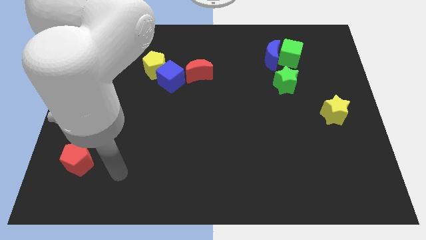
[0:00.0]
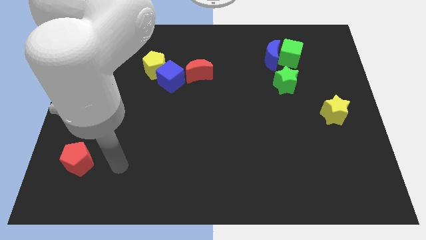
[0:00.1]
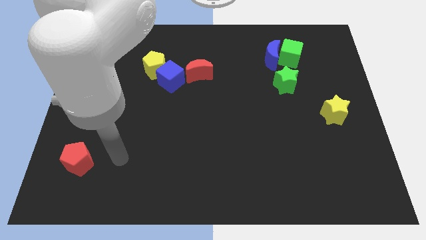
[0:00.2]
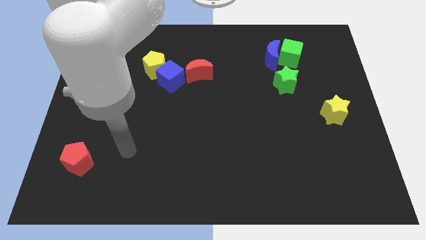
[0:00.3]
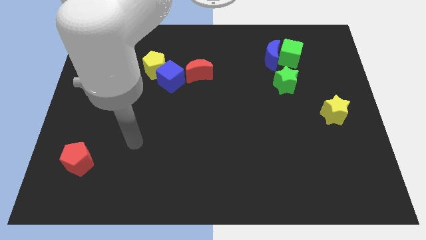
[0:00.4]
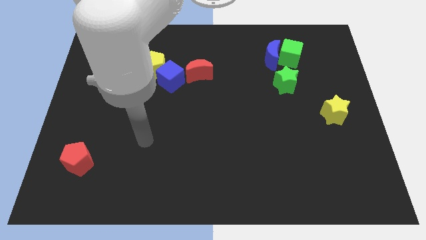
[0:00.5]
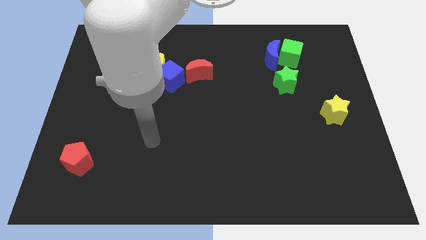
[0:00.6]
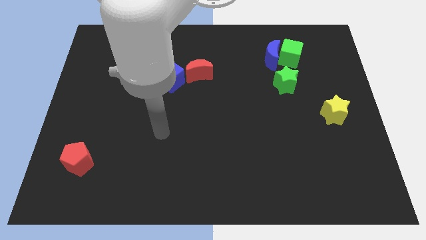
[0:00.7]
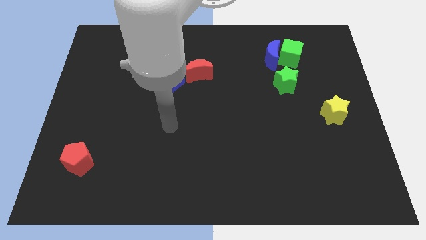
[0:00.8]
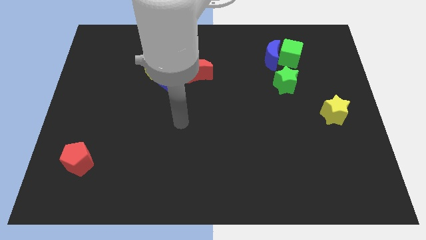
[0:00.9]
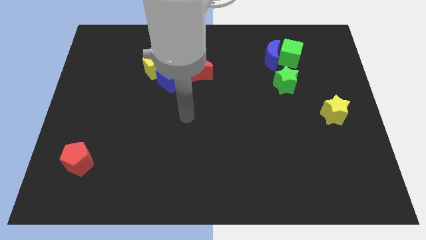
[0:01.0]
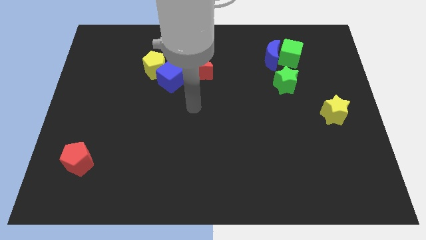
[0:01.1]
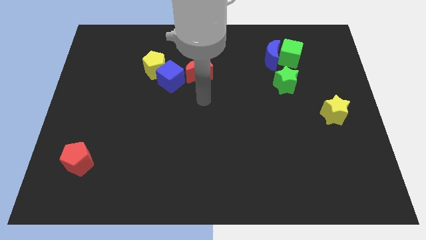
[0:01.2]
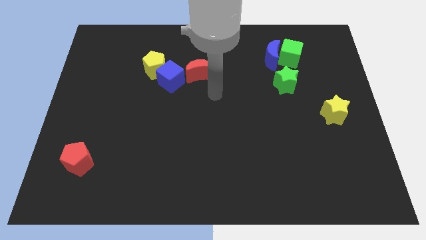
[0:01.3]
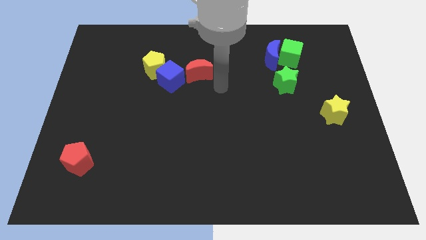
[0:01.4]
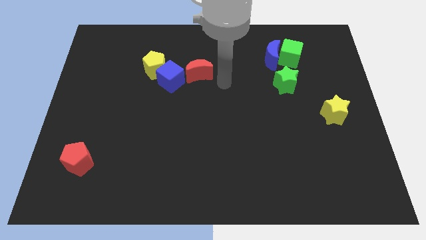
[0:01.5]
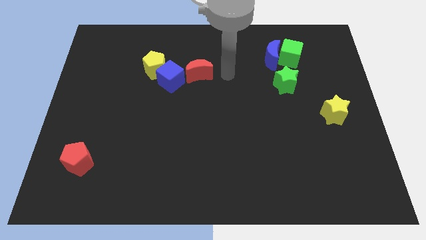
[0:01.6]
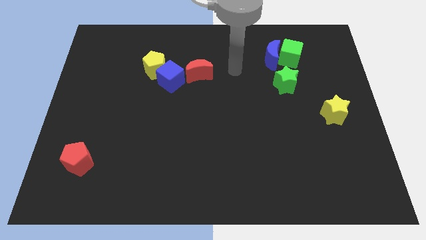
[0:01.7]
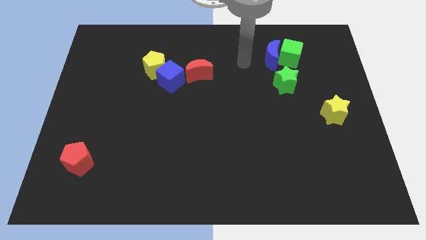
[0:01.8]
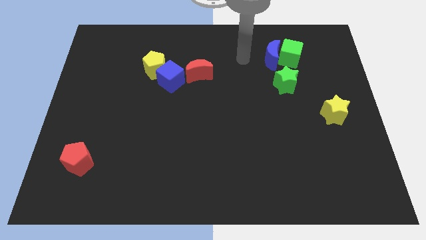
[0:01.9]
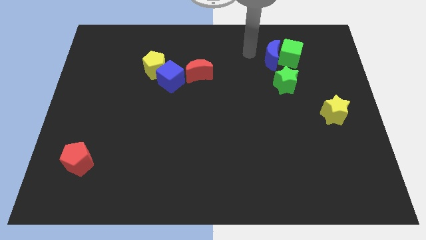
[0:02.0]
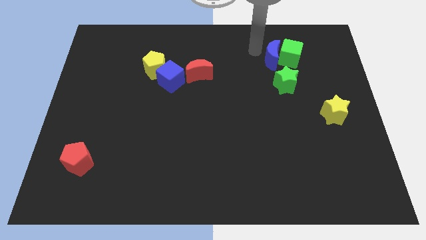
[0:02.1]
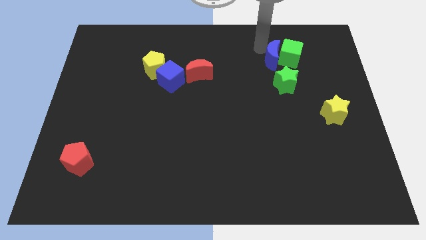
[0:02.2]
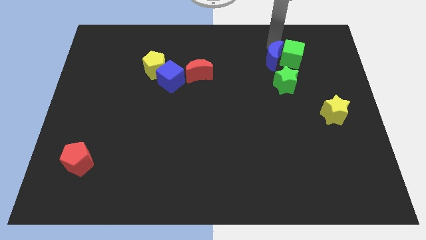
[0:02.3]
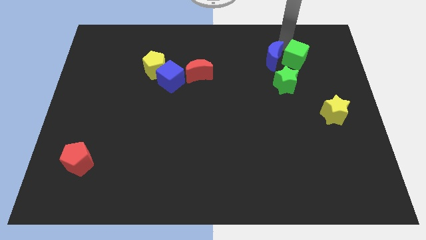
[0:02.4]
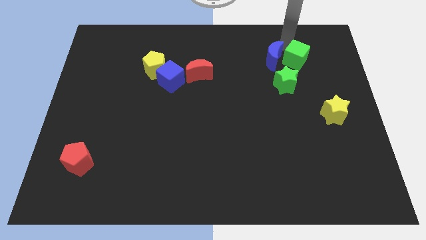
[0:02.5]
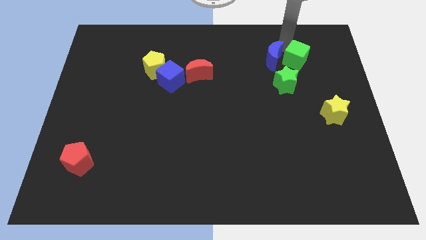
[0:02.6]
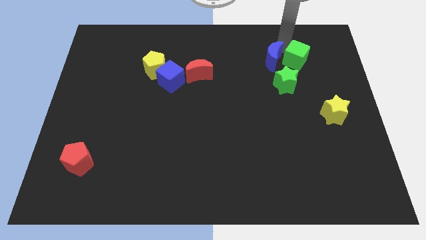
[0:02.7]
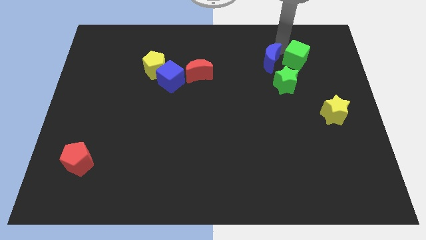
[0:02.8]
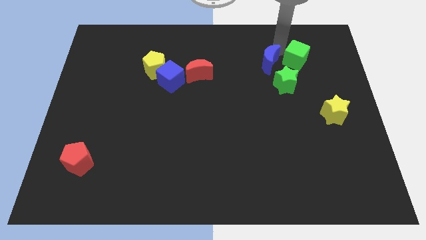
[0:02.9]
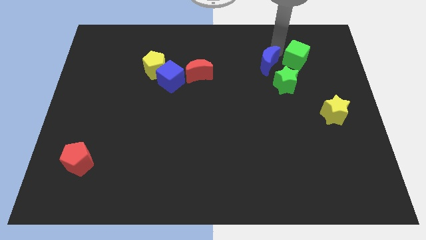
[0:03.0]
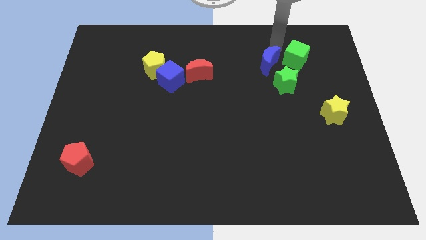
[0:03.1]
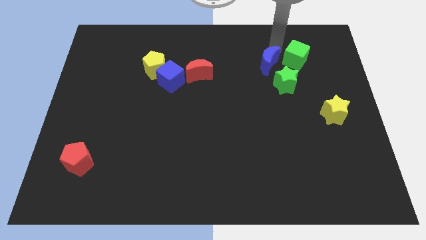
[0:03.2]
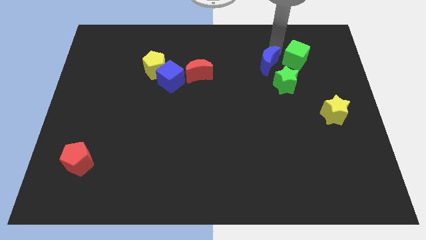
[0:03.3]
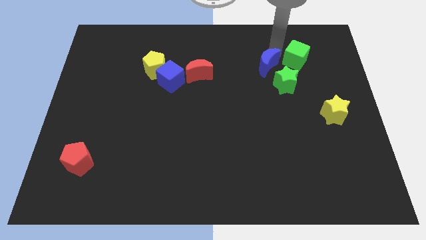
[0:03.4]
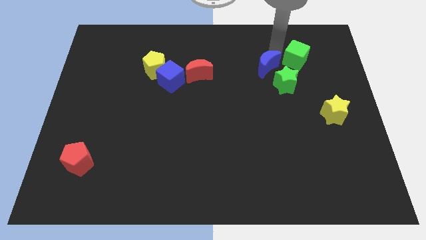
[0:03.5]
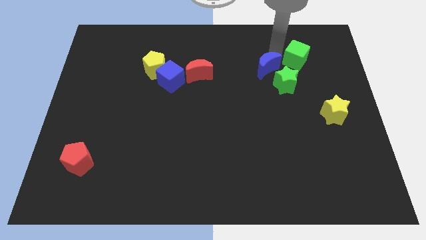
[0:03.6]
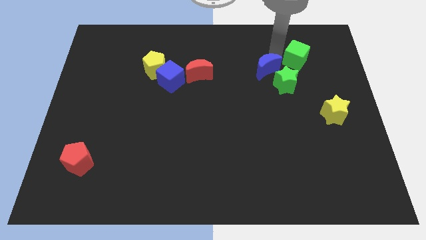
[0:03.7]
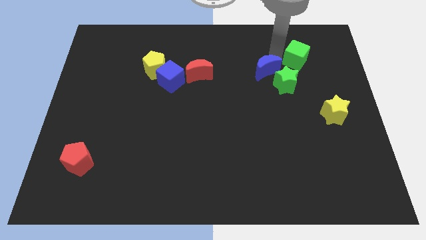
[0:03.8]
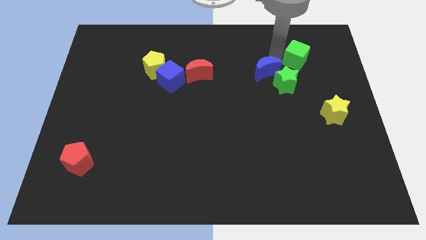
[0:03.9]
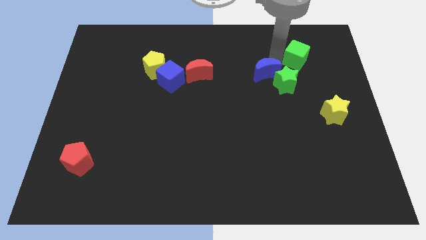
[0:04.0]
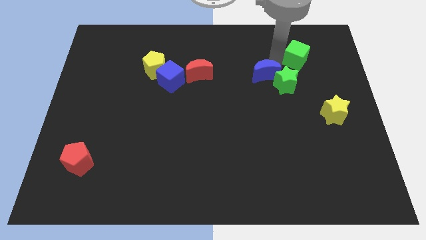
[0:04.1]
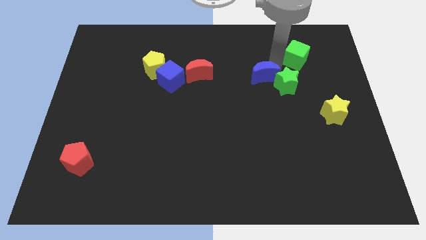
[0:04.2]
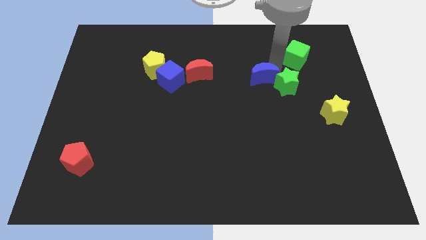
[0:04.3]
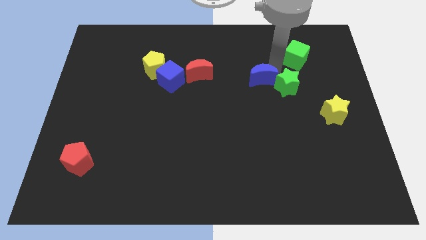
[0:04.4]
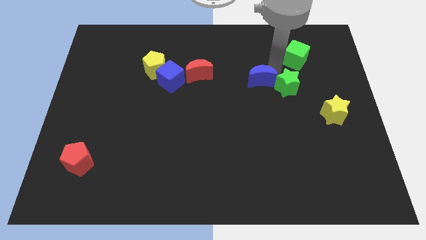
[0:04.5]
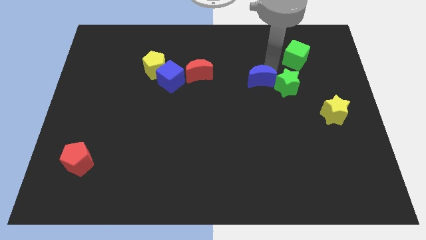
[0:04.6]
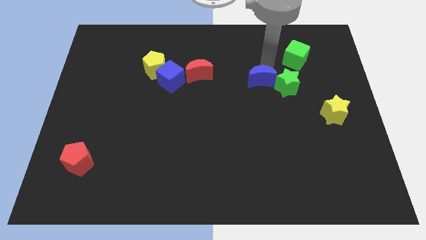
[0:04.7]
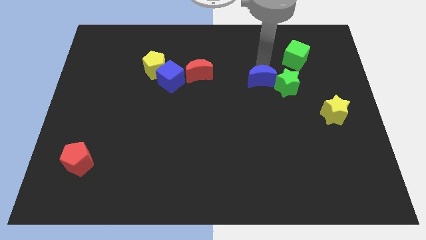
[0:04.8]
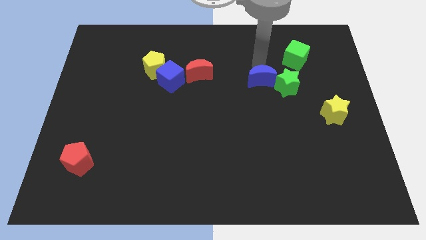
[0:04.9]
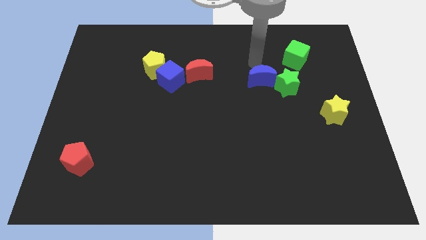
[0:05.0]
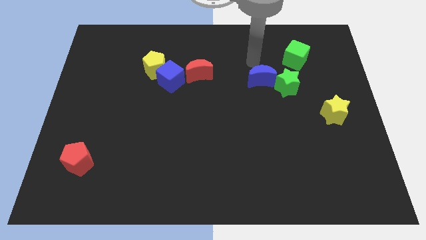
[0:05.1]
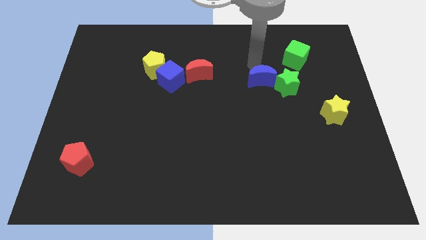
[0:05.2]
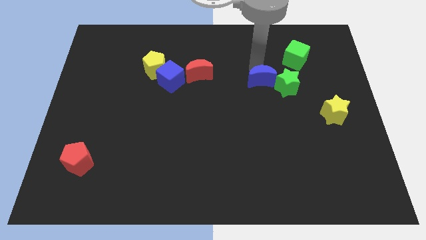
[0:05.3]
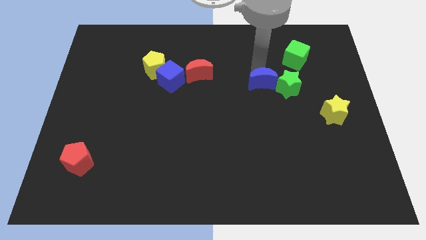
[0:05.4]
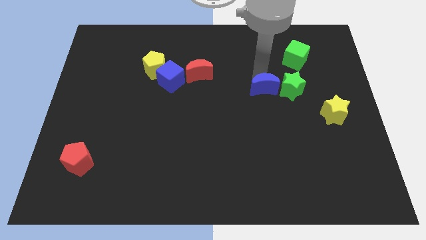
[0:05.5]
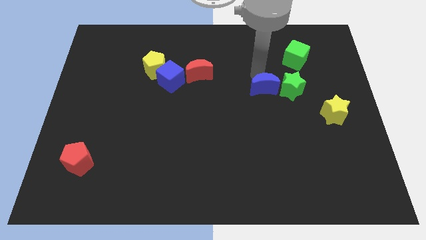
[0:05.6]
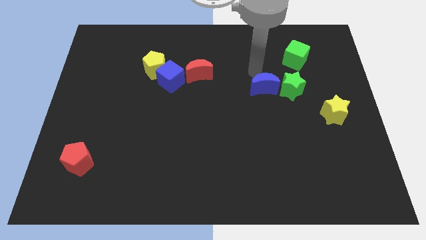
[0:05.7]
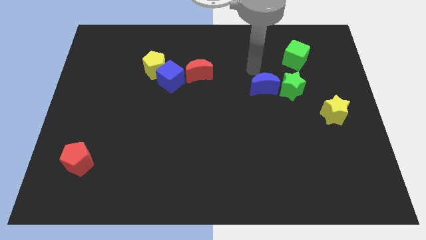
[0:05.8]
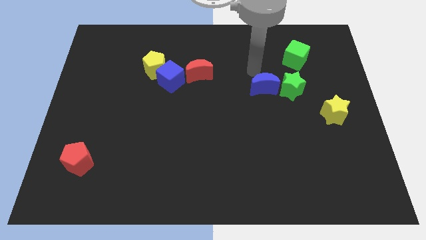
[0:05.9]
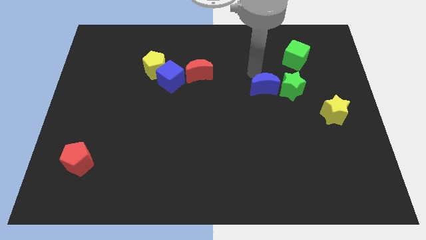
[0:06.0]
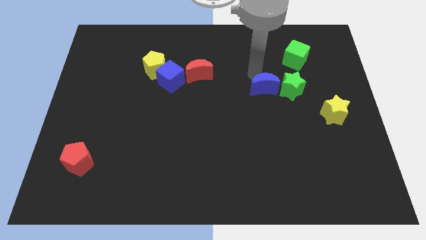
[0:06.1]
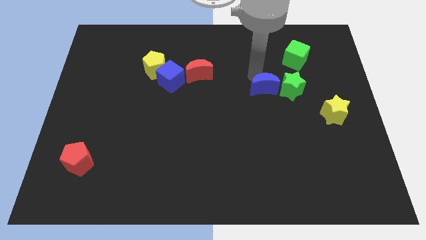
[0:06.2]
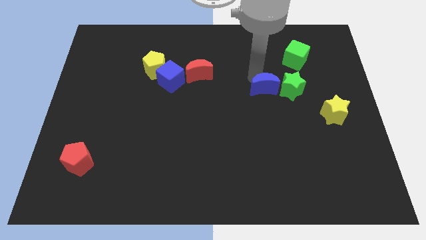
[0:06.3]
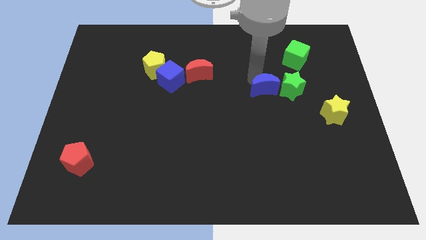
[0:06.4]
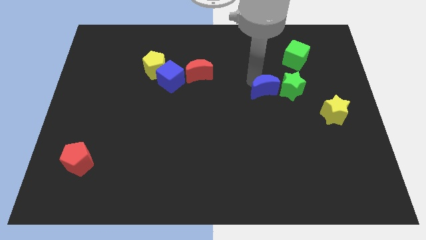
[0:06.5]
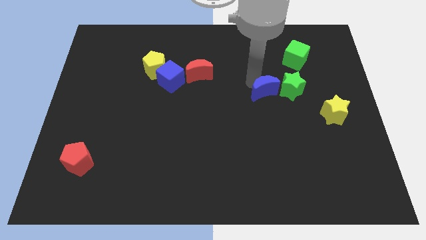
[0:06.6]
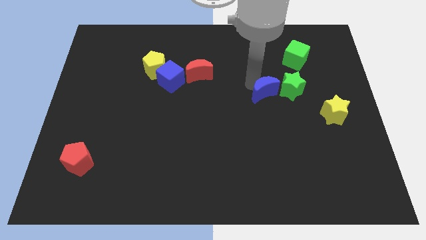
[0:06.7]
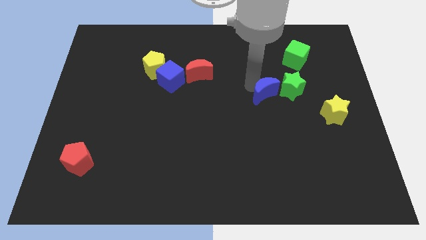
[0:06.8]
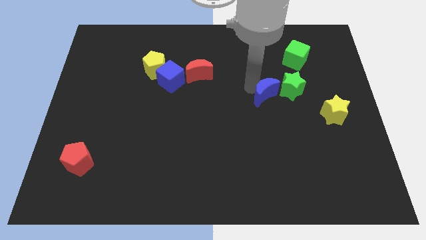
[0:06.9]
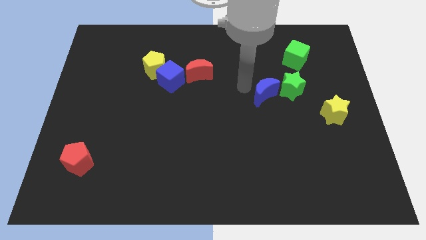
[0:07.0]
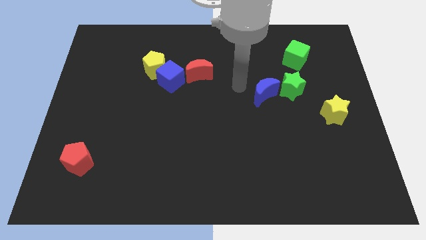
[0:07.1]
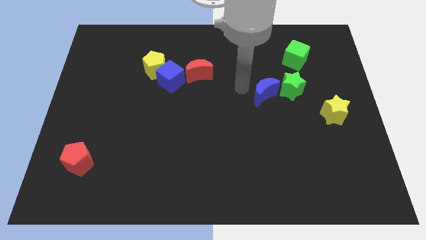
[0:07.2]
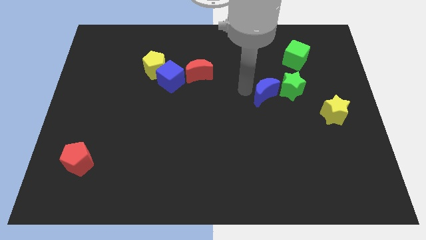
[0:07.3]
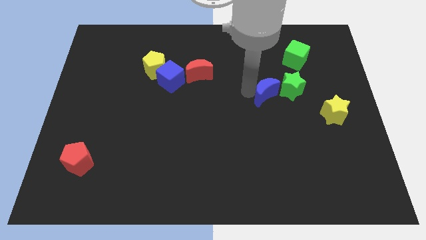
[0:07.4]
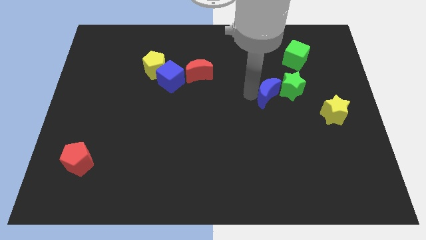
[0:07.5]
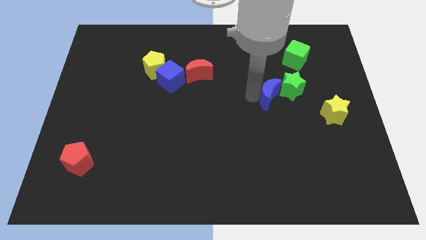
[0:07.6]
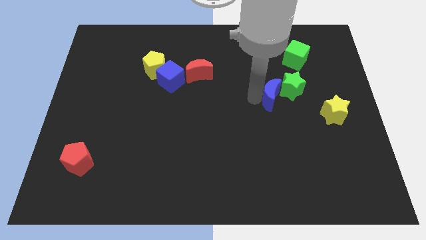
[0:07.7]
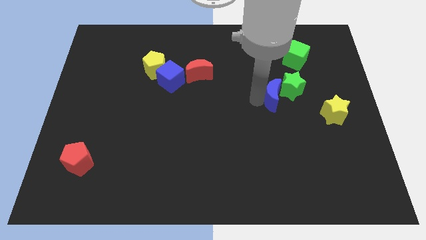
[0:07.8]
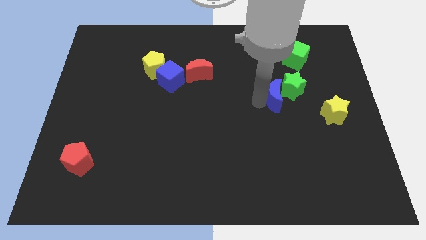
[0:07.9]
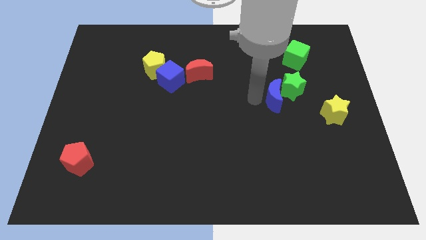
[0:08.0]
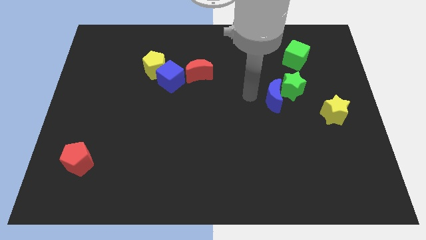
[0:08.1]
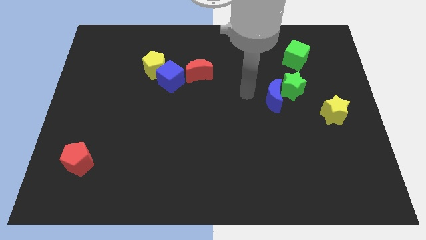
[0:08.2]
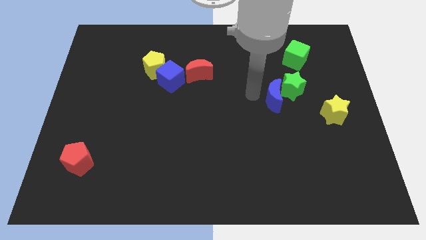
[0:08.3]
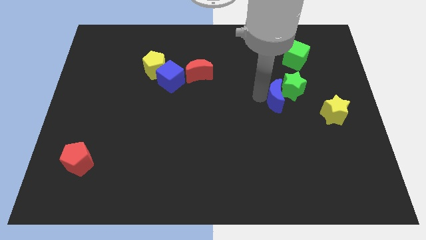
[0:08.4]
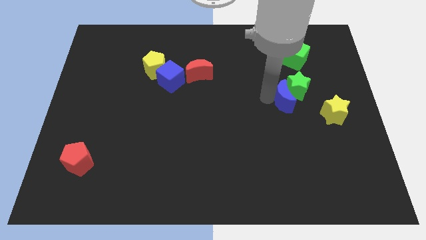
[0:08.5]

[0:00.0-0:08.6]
push the blue moon down and to the right diagonally a little
